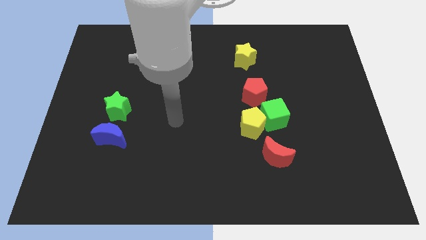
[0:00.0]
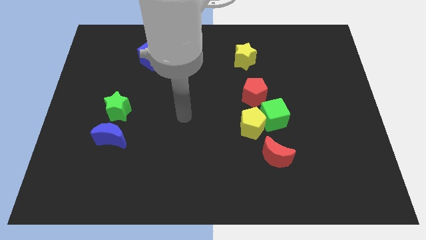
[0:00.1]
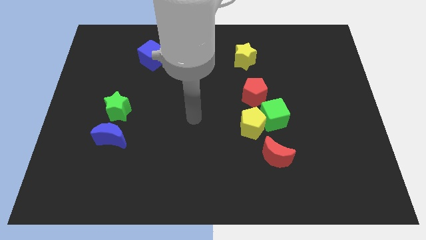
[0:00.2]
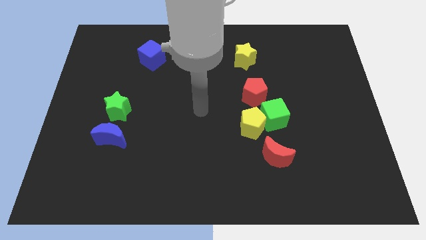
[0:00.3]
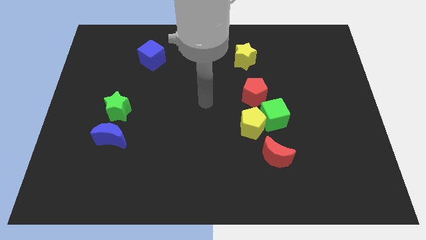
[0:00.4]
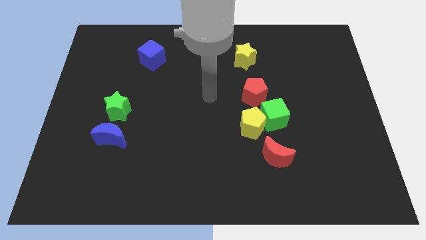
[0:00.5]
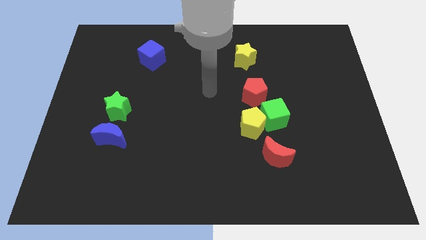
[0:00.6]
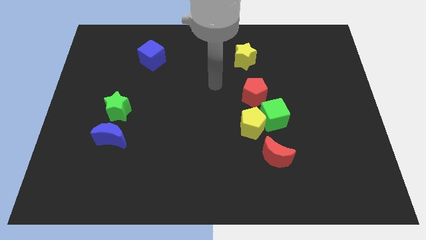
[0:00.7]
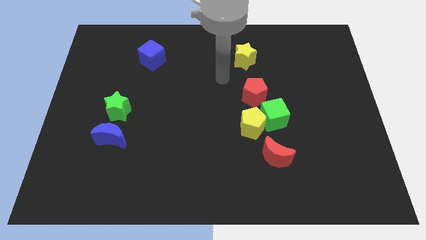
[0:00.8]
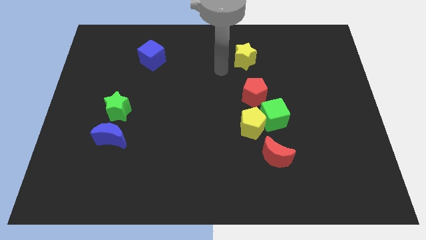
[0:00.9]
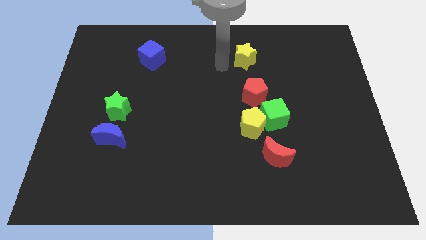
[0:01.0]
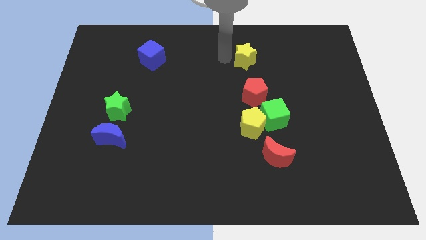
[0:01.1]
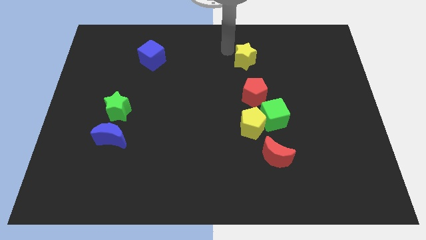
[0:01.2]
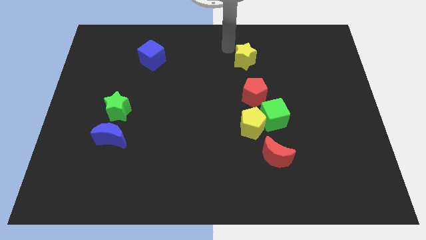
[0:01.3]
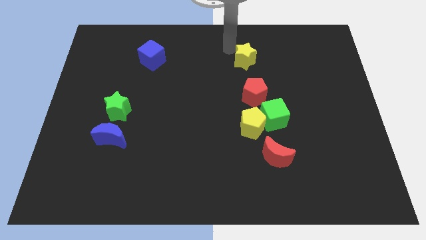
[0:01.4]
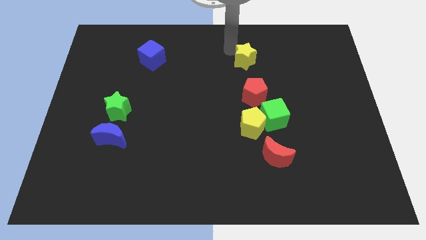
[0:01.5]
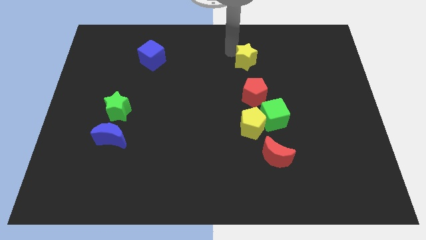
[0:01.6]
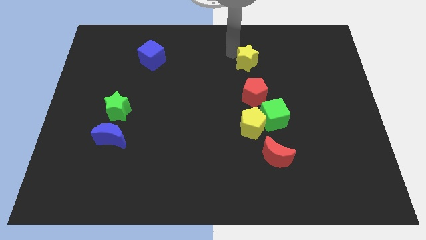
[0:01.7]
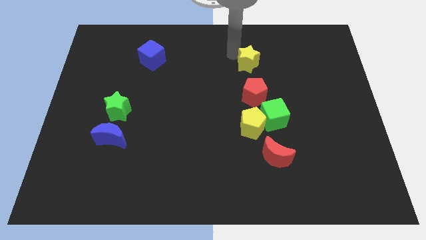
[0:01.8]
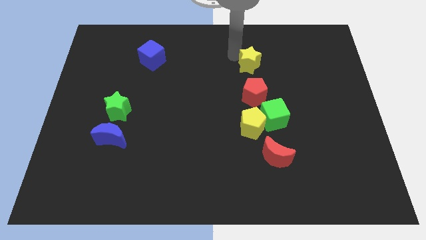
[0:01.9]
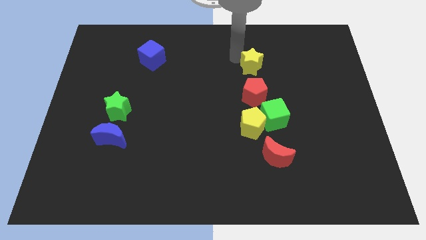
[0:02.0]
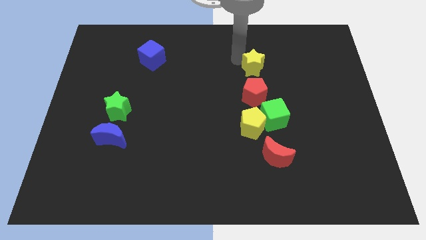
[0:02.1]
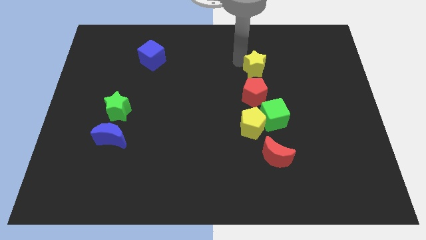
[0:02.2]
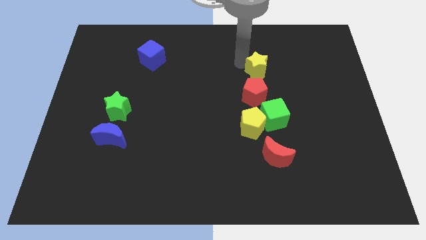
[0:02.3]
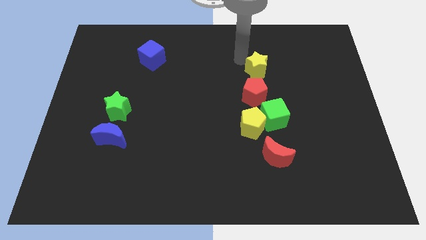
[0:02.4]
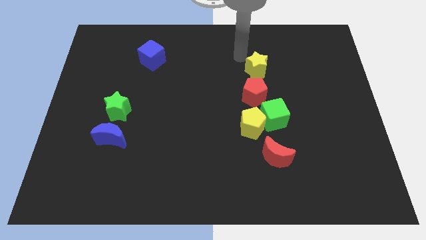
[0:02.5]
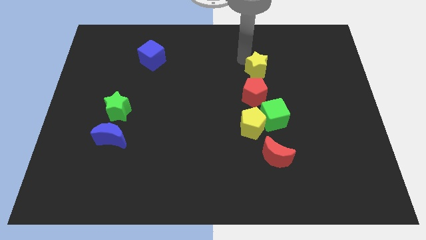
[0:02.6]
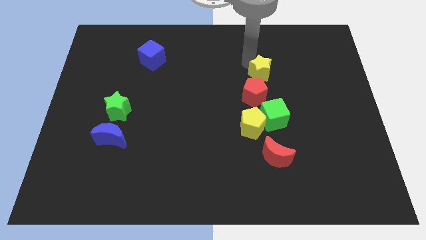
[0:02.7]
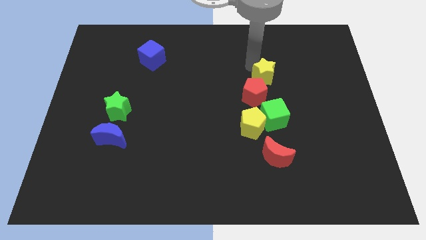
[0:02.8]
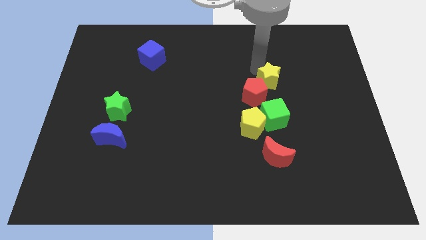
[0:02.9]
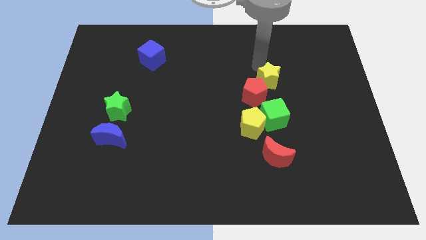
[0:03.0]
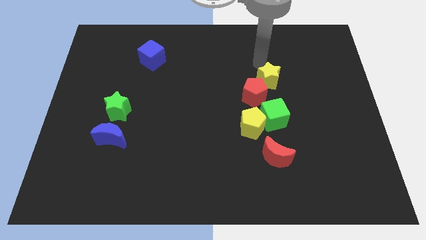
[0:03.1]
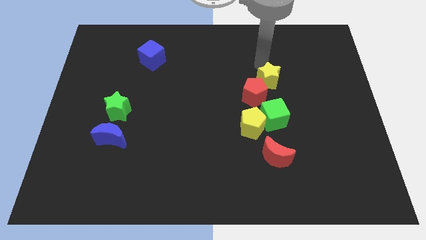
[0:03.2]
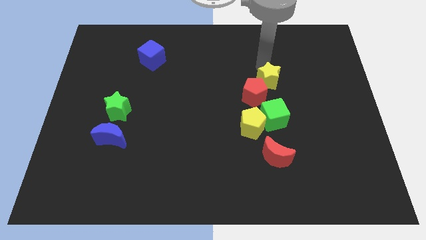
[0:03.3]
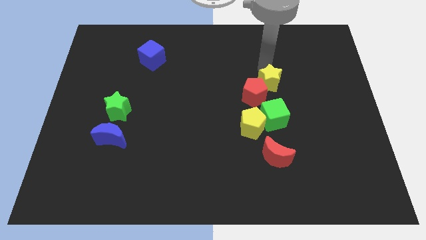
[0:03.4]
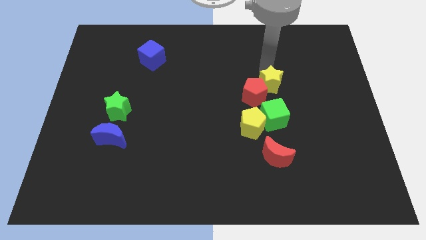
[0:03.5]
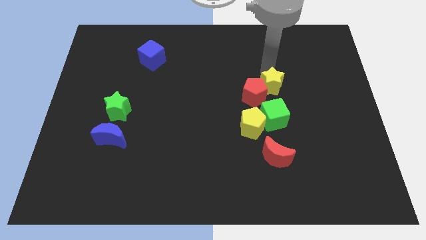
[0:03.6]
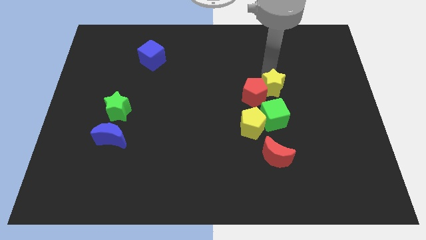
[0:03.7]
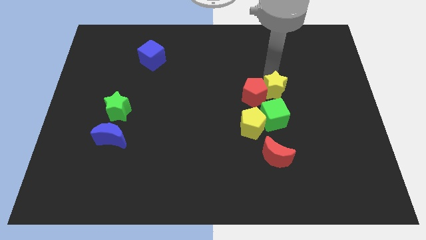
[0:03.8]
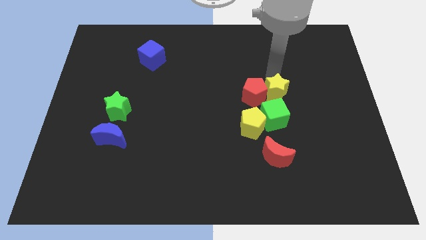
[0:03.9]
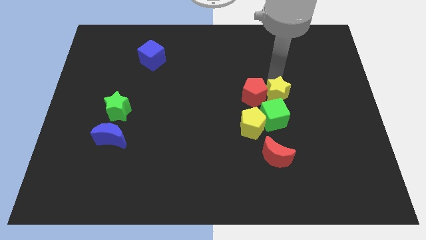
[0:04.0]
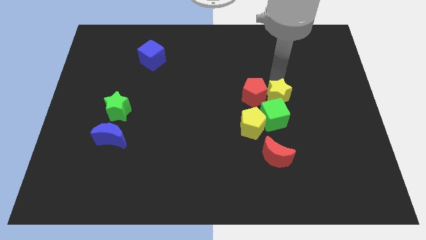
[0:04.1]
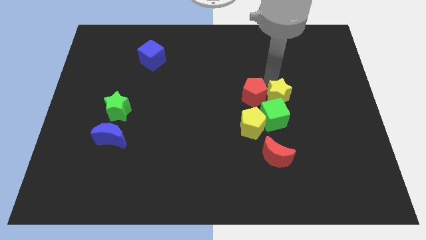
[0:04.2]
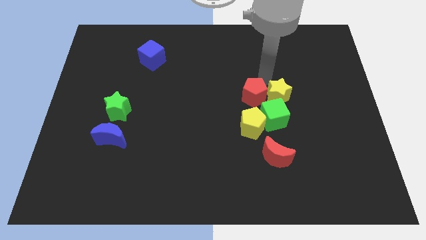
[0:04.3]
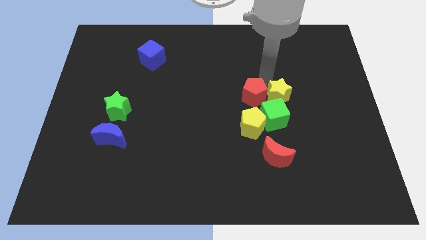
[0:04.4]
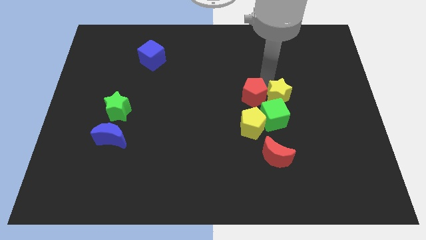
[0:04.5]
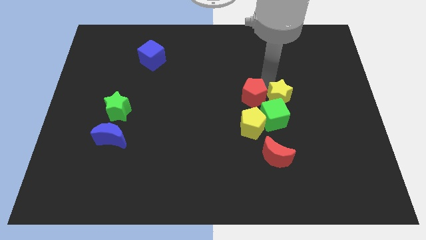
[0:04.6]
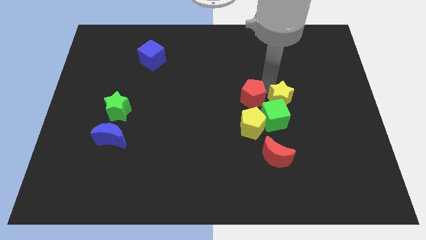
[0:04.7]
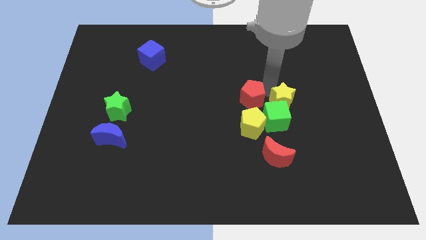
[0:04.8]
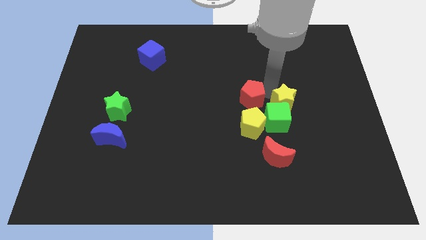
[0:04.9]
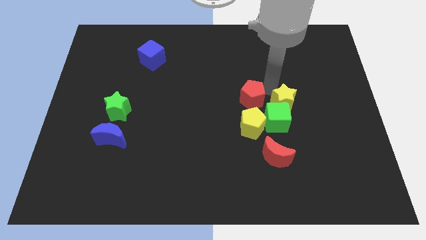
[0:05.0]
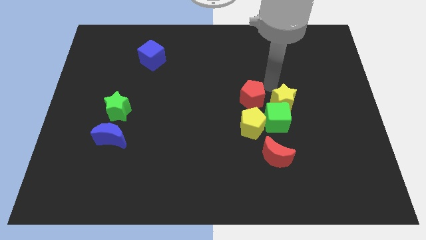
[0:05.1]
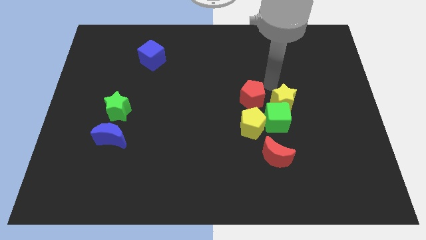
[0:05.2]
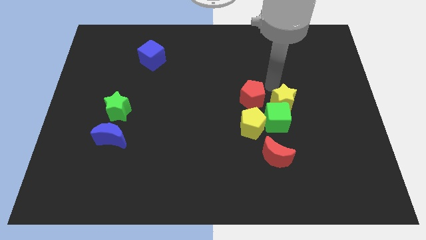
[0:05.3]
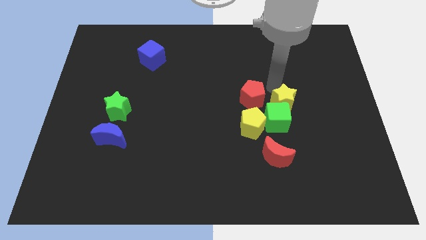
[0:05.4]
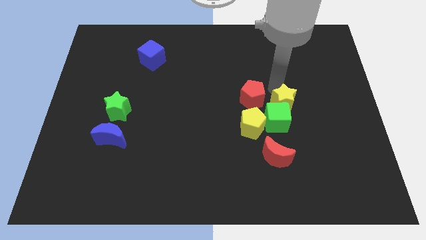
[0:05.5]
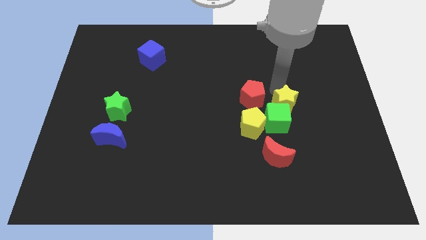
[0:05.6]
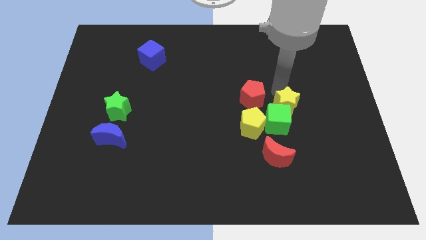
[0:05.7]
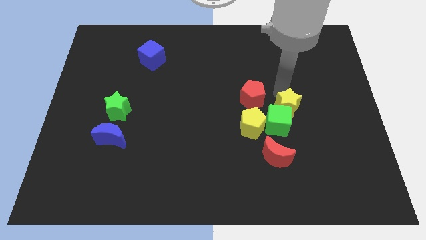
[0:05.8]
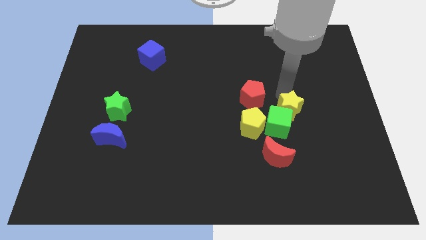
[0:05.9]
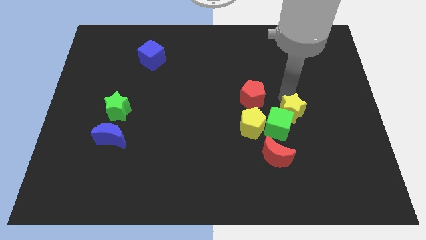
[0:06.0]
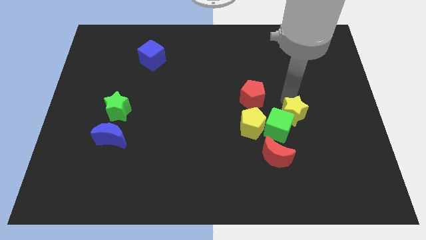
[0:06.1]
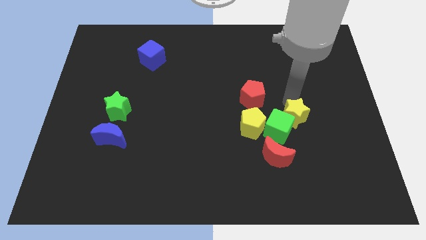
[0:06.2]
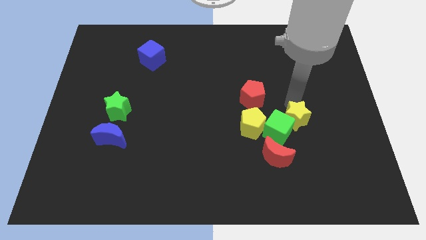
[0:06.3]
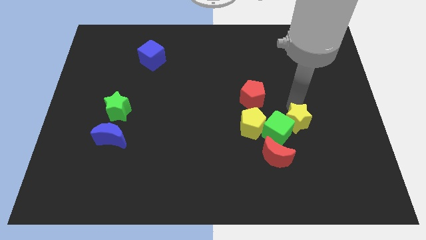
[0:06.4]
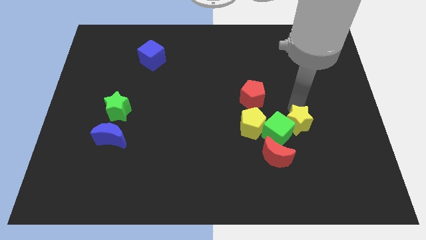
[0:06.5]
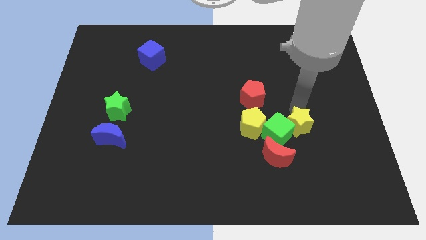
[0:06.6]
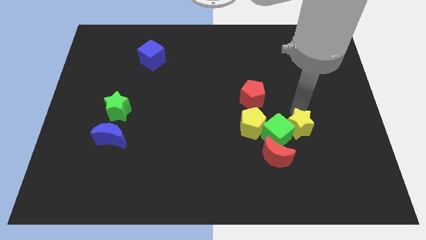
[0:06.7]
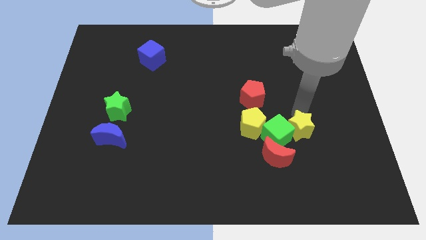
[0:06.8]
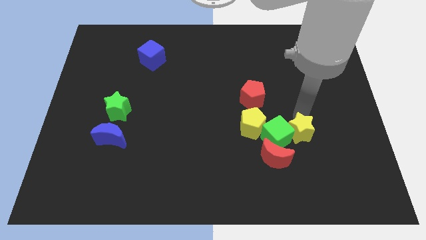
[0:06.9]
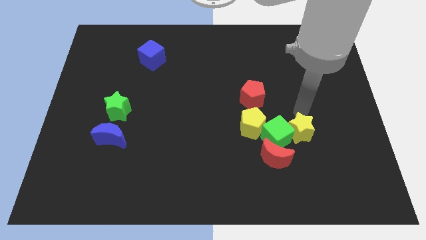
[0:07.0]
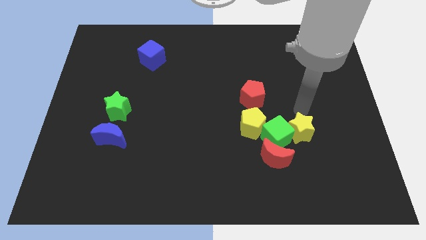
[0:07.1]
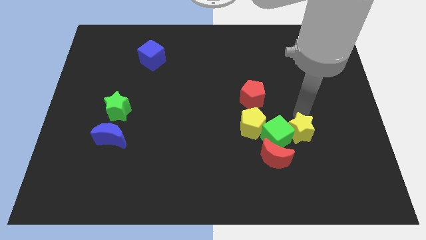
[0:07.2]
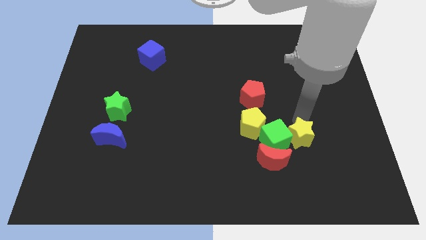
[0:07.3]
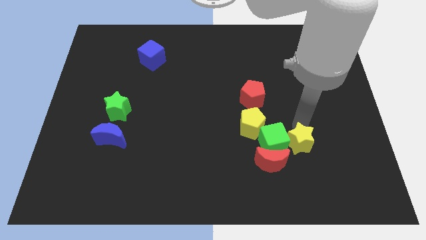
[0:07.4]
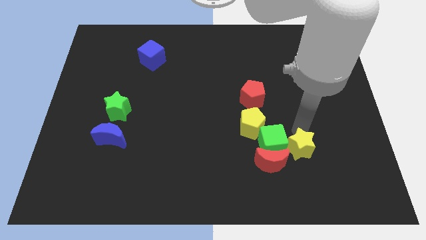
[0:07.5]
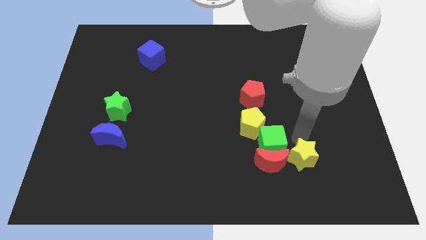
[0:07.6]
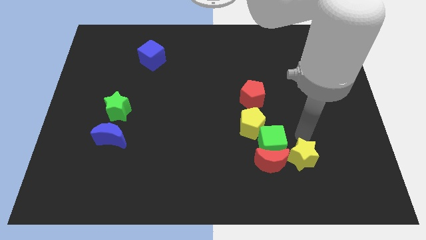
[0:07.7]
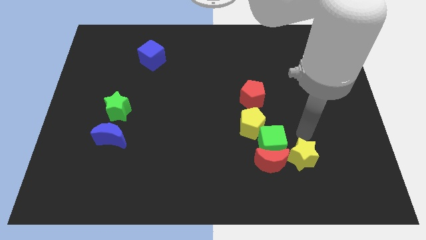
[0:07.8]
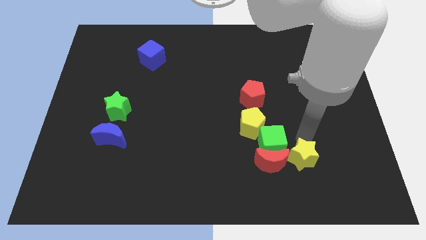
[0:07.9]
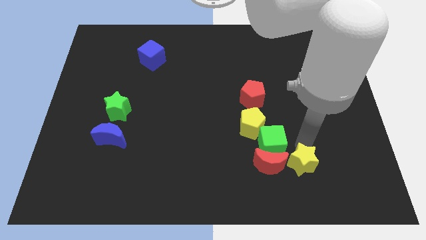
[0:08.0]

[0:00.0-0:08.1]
move the yellow star to the bottom right of the red moon
